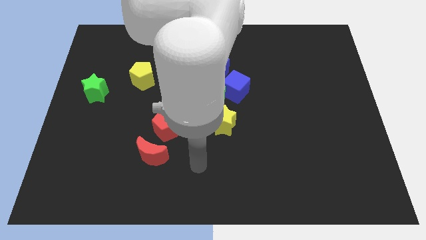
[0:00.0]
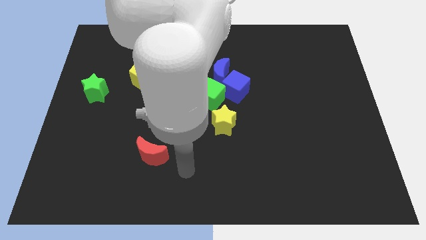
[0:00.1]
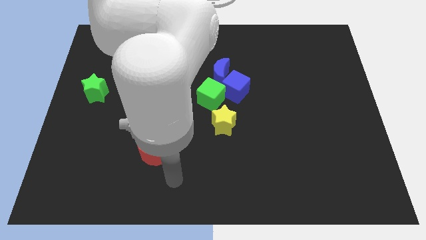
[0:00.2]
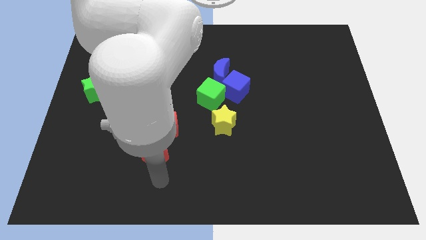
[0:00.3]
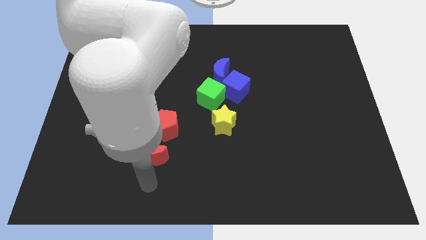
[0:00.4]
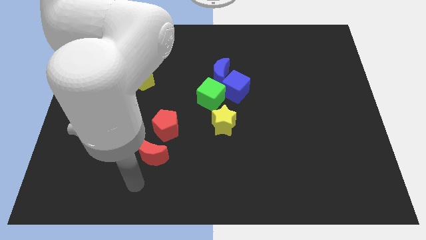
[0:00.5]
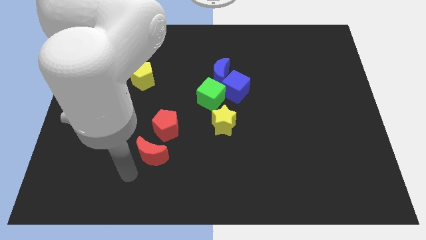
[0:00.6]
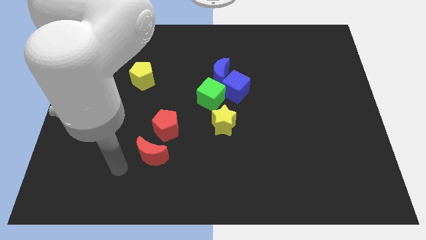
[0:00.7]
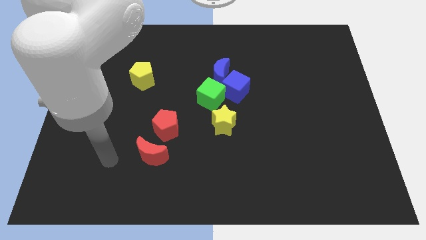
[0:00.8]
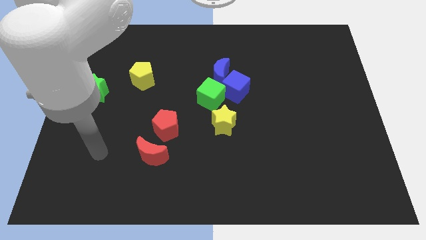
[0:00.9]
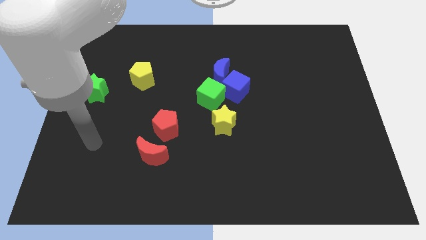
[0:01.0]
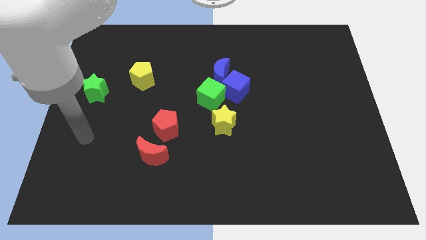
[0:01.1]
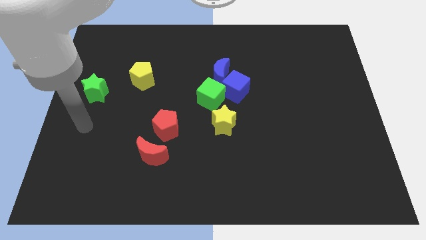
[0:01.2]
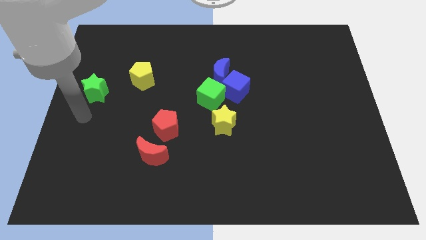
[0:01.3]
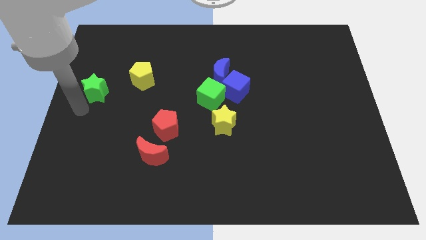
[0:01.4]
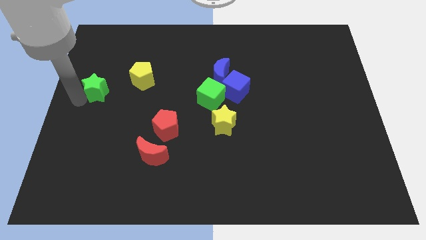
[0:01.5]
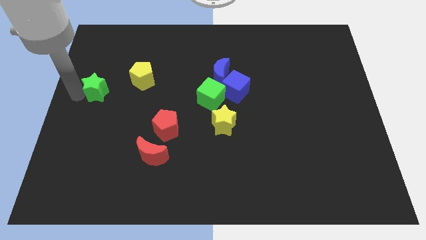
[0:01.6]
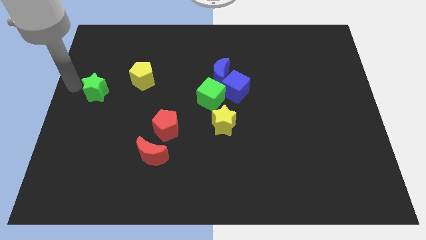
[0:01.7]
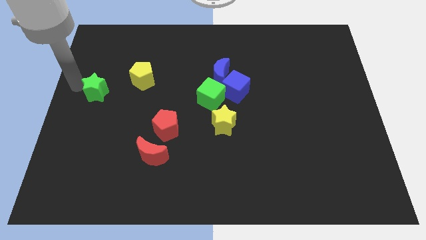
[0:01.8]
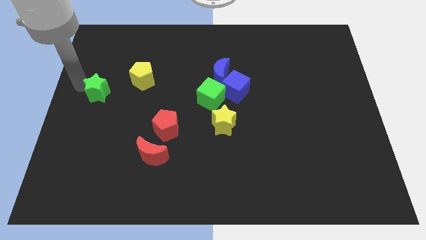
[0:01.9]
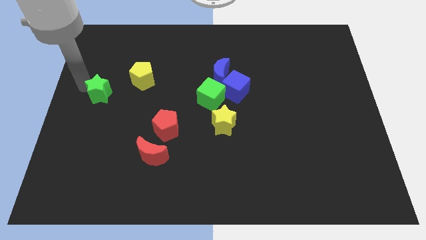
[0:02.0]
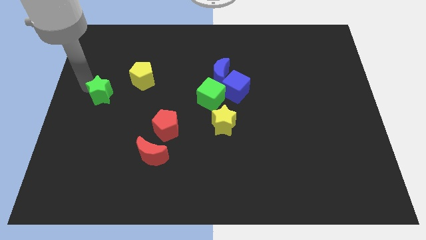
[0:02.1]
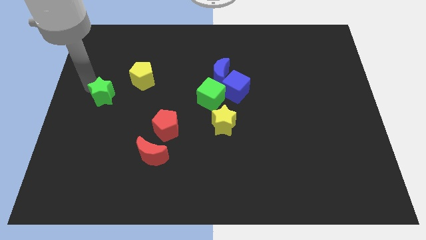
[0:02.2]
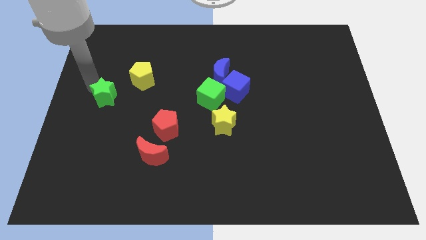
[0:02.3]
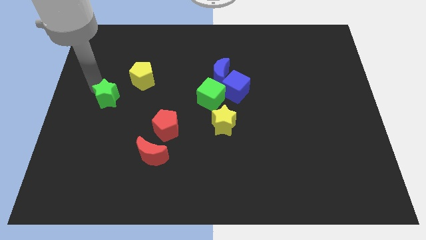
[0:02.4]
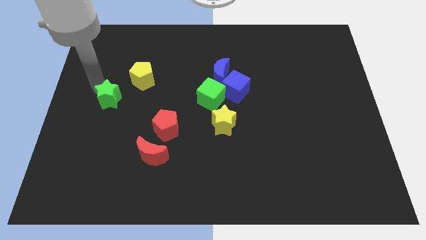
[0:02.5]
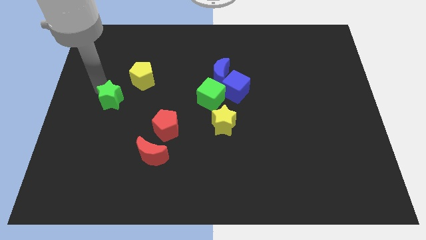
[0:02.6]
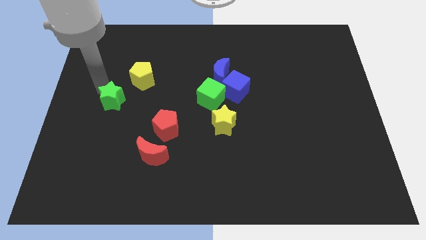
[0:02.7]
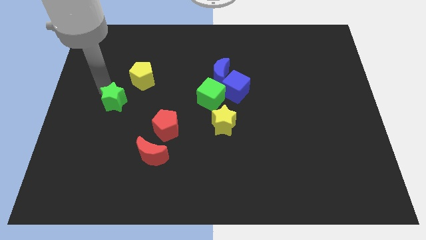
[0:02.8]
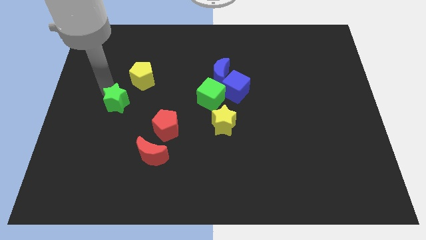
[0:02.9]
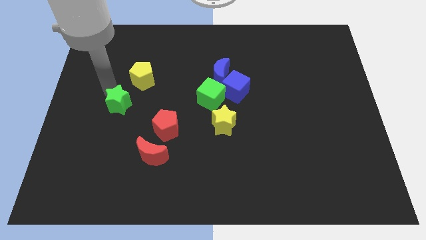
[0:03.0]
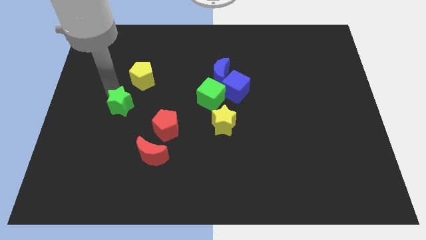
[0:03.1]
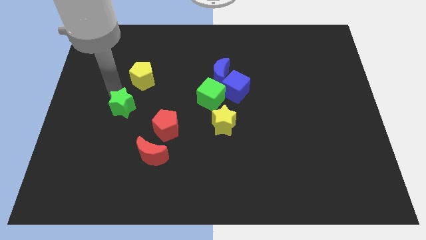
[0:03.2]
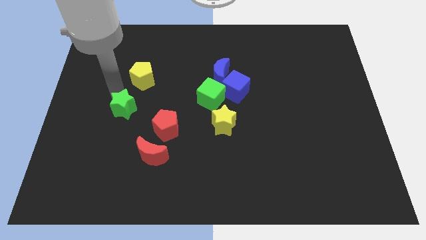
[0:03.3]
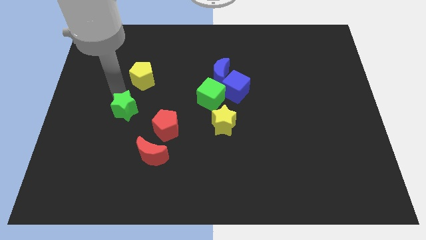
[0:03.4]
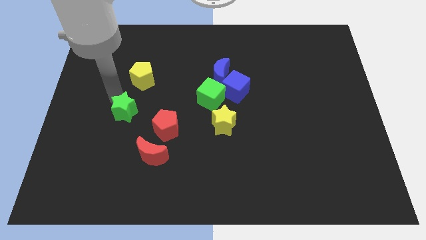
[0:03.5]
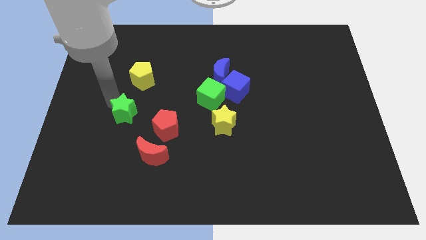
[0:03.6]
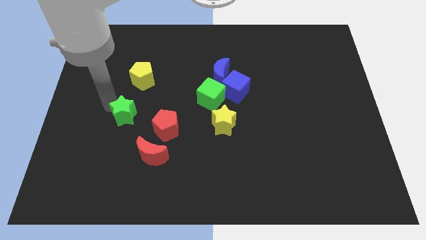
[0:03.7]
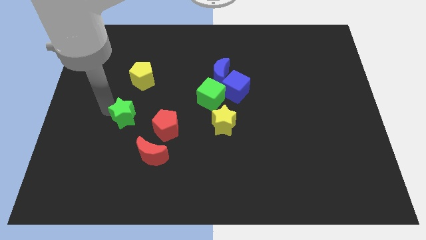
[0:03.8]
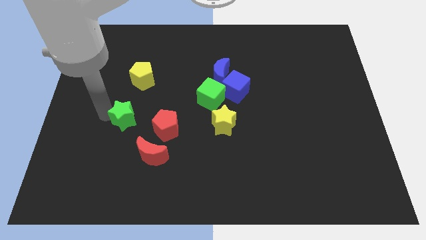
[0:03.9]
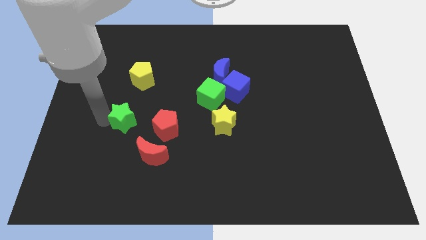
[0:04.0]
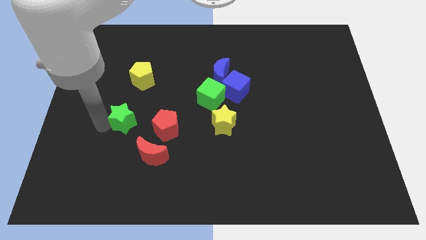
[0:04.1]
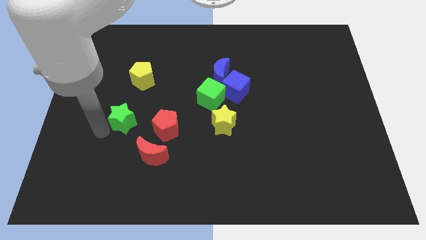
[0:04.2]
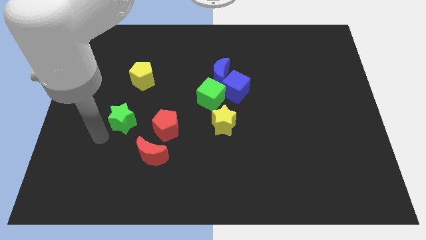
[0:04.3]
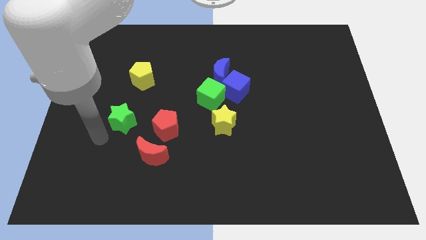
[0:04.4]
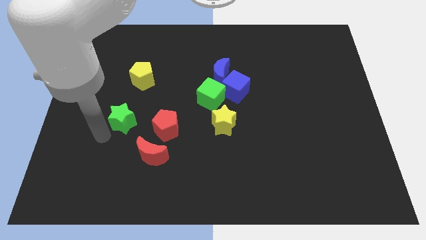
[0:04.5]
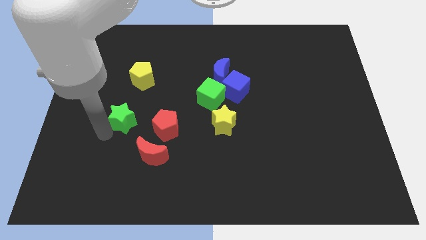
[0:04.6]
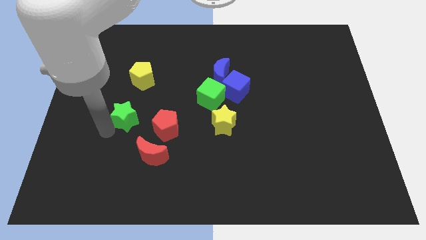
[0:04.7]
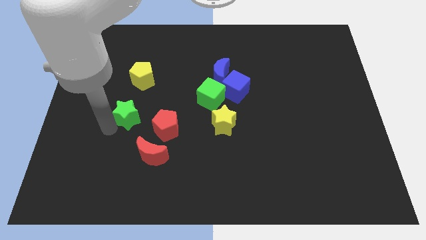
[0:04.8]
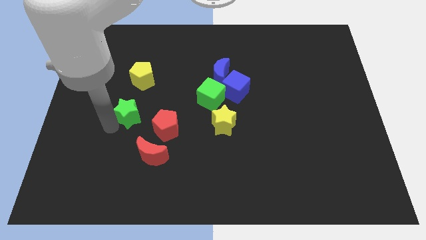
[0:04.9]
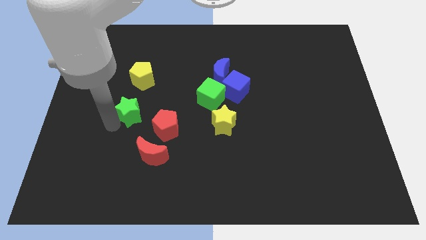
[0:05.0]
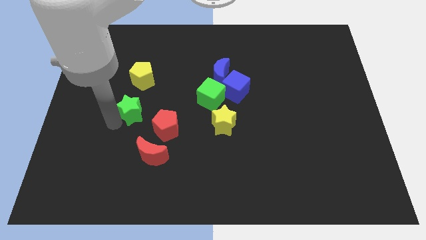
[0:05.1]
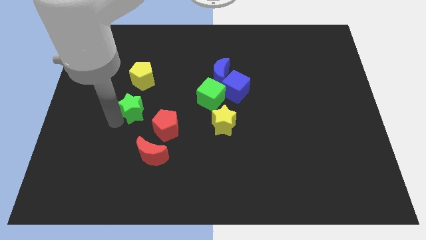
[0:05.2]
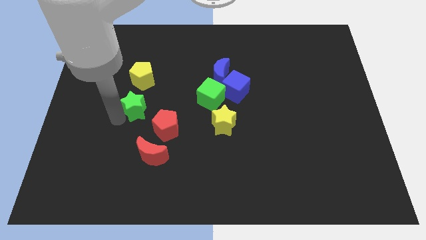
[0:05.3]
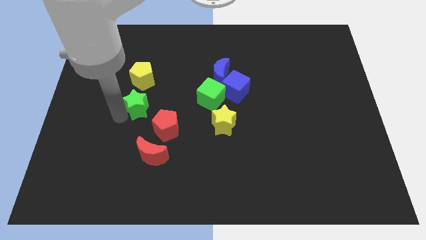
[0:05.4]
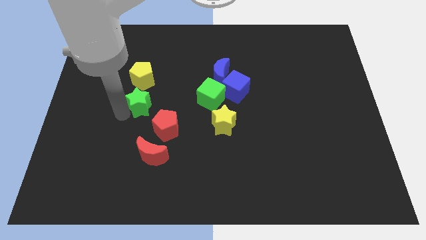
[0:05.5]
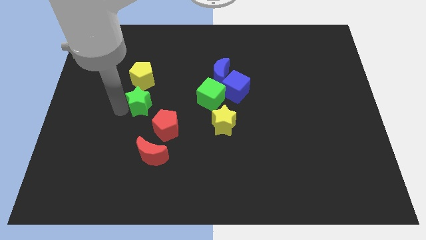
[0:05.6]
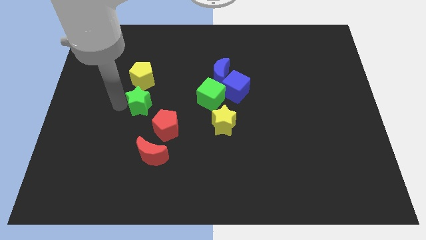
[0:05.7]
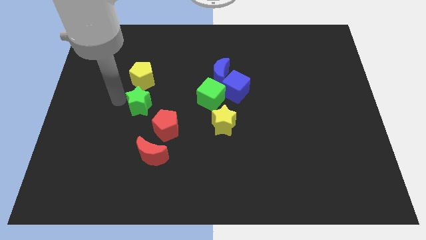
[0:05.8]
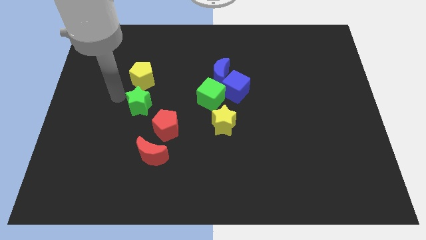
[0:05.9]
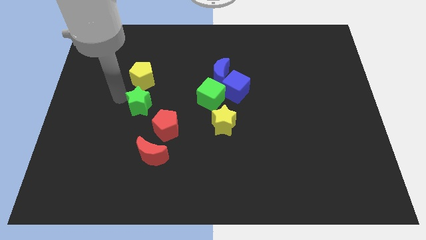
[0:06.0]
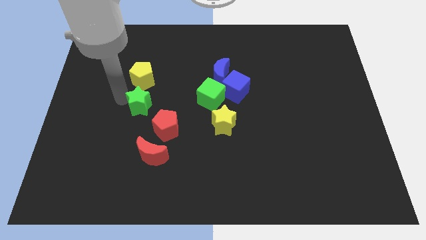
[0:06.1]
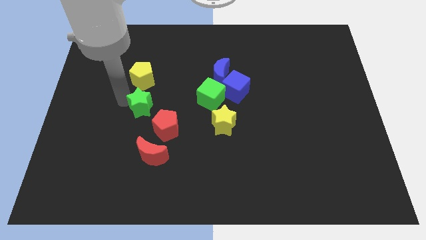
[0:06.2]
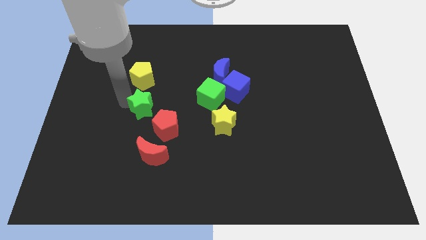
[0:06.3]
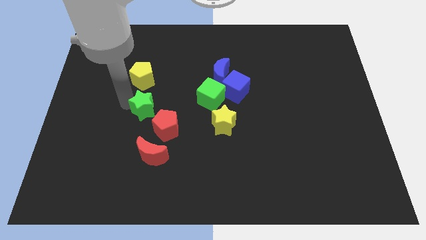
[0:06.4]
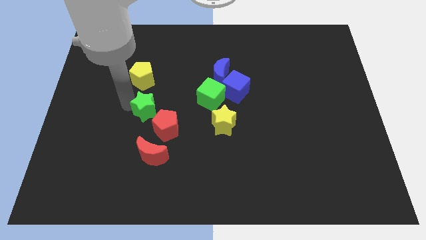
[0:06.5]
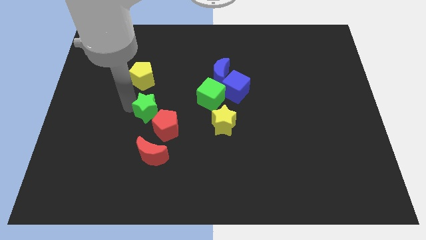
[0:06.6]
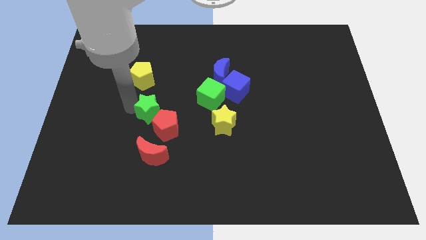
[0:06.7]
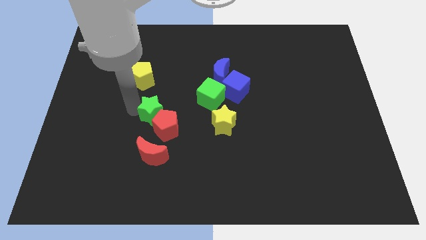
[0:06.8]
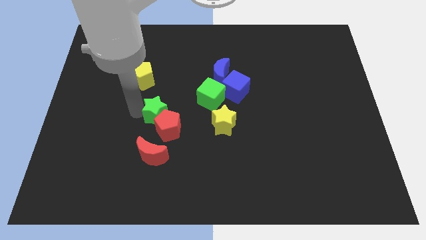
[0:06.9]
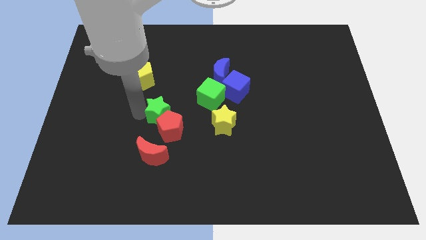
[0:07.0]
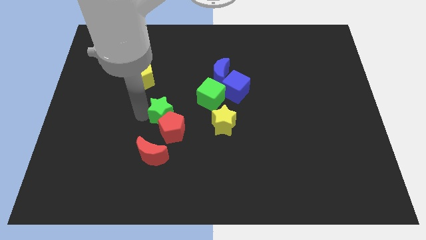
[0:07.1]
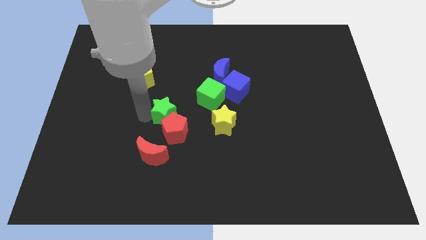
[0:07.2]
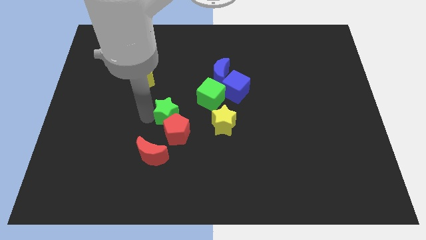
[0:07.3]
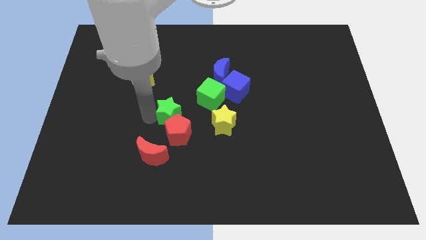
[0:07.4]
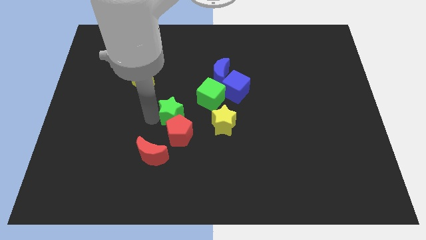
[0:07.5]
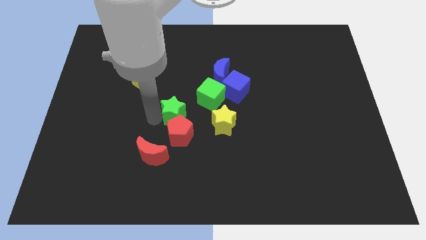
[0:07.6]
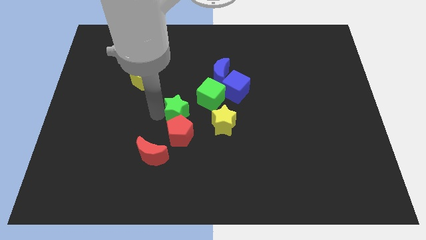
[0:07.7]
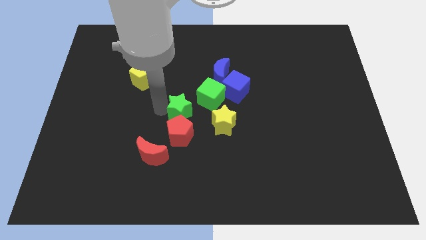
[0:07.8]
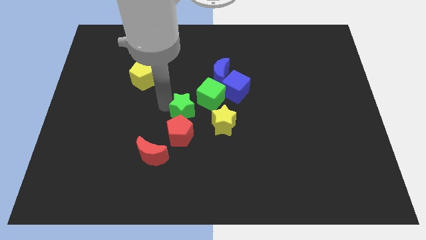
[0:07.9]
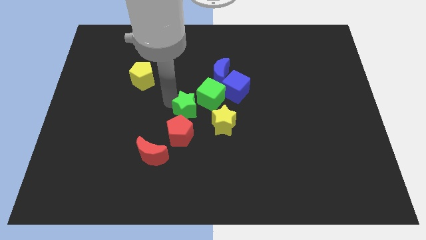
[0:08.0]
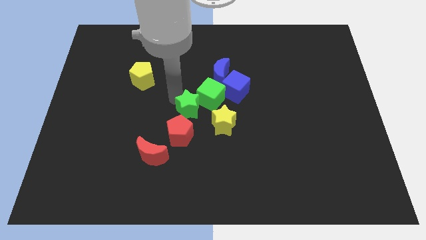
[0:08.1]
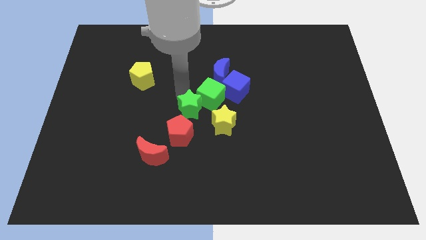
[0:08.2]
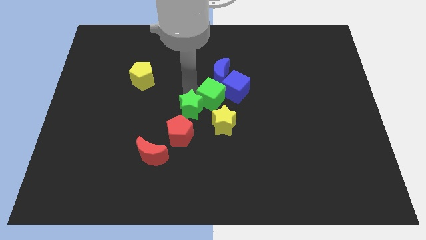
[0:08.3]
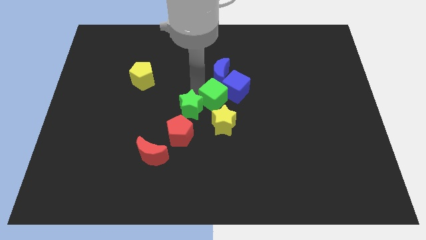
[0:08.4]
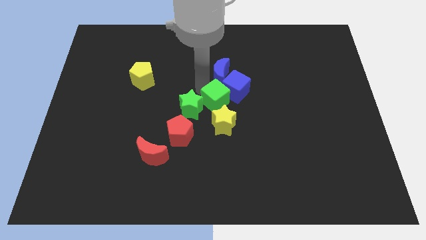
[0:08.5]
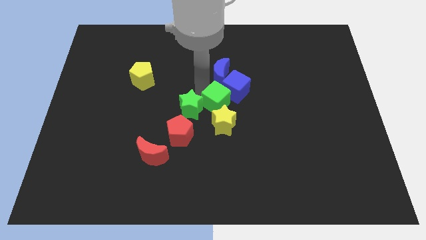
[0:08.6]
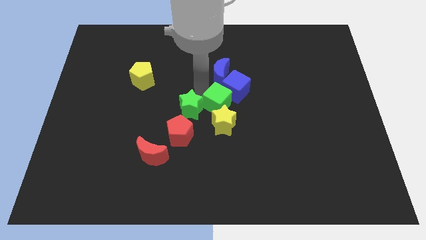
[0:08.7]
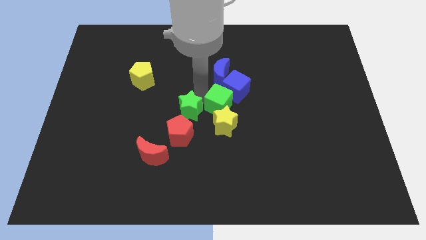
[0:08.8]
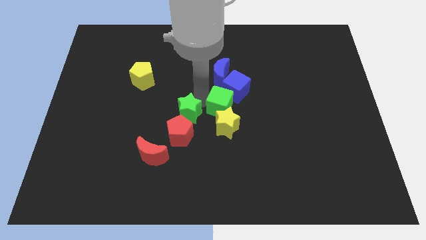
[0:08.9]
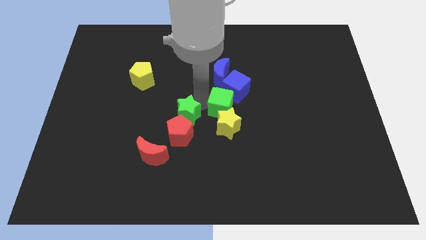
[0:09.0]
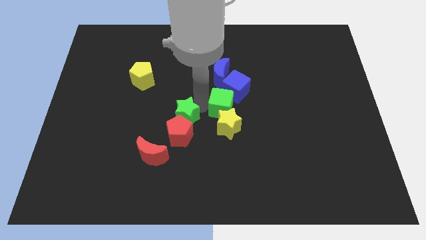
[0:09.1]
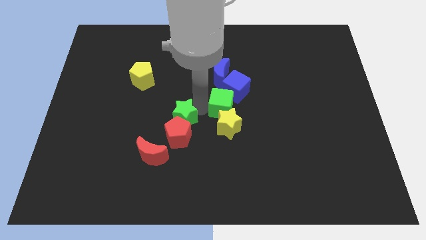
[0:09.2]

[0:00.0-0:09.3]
push the green star diagonally up and to the right of the red moon
